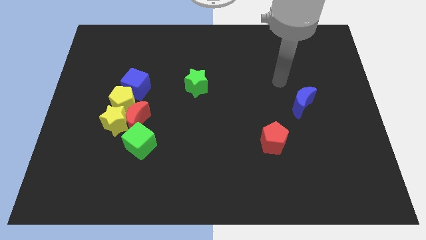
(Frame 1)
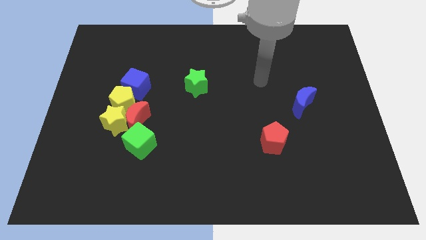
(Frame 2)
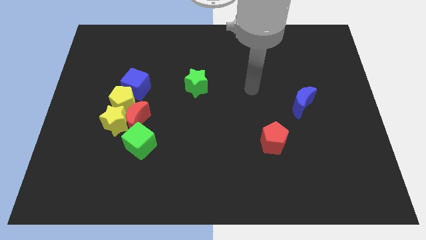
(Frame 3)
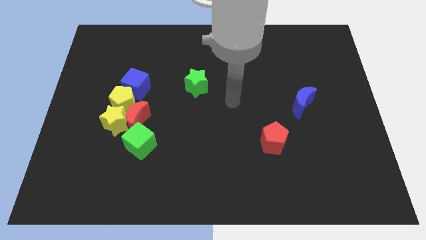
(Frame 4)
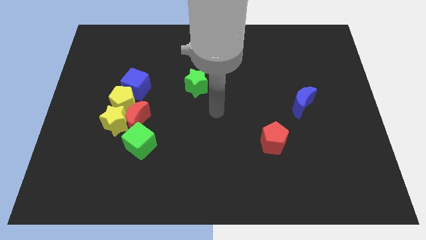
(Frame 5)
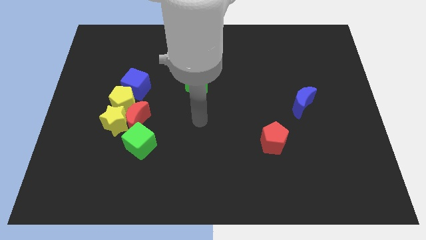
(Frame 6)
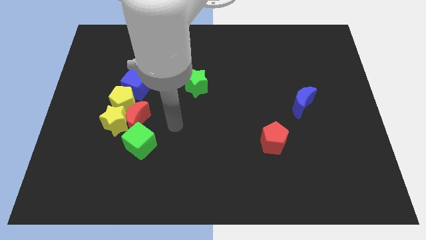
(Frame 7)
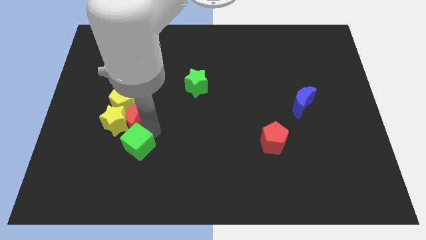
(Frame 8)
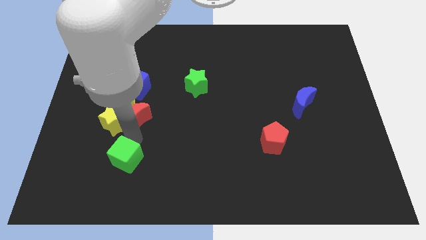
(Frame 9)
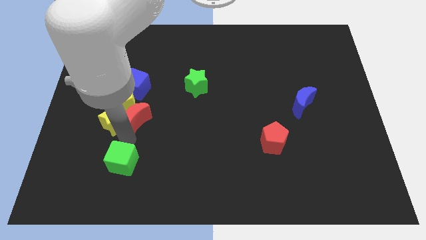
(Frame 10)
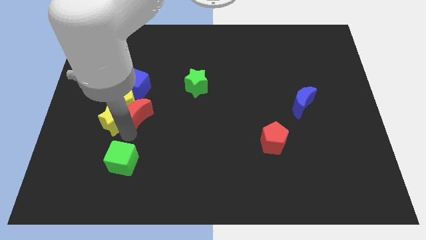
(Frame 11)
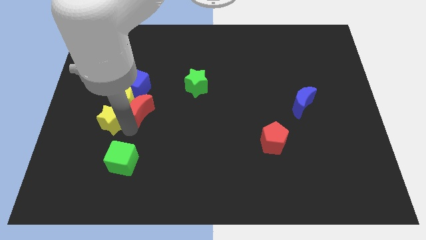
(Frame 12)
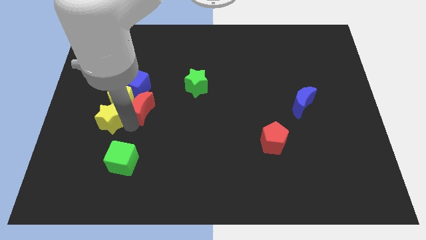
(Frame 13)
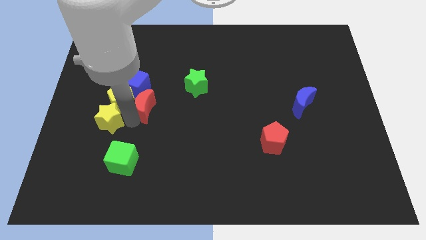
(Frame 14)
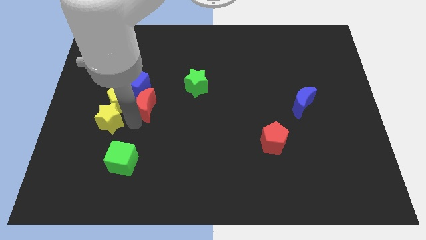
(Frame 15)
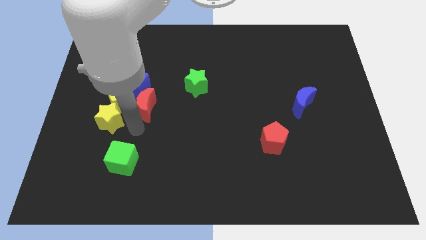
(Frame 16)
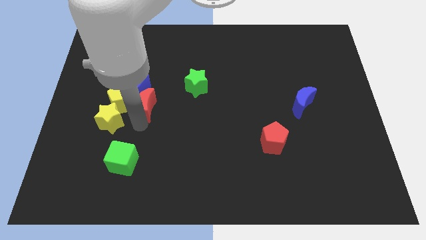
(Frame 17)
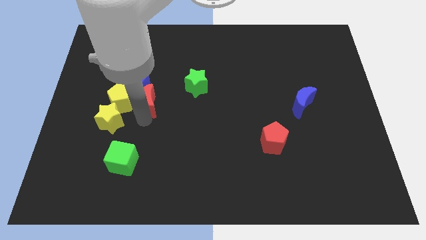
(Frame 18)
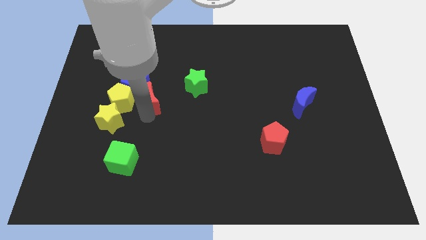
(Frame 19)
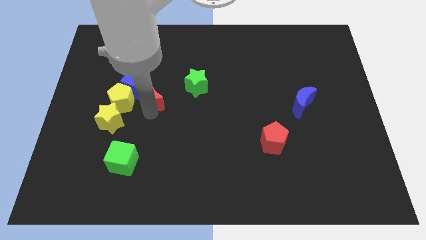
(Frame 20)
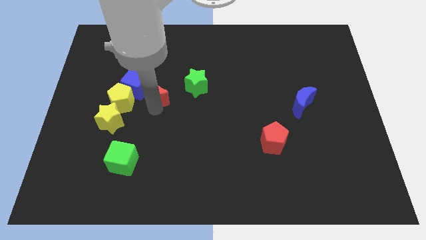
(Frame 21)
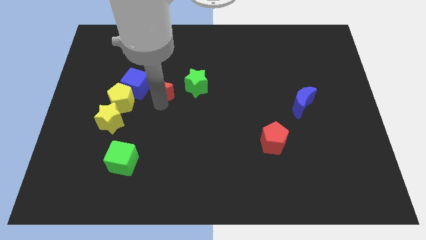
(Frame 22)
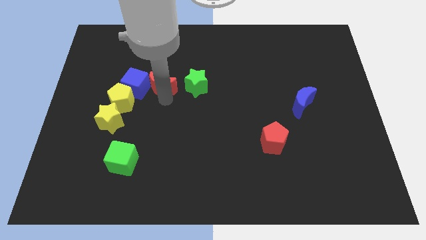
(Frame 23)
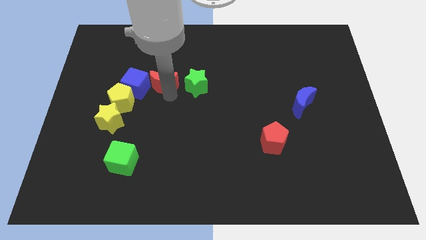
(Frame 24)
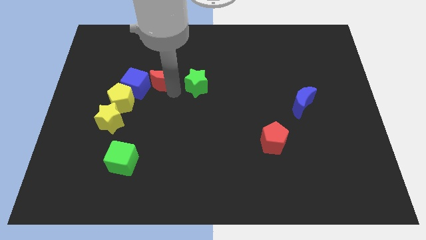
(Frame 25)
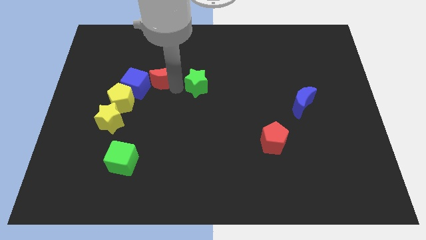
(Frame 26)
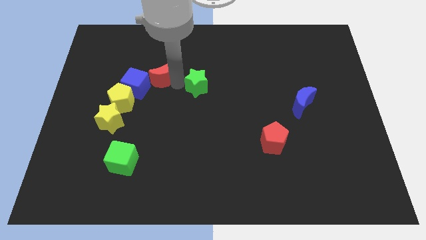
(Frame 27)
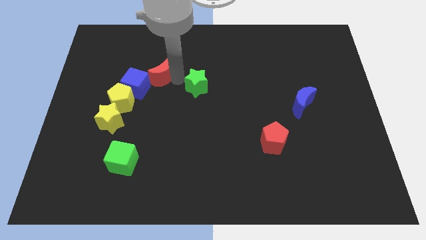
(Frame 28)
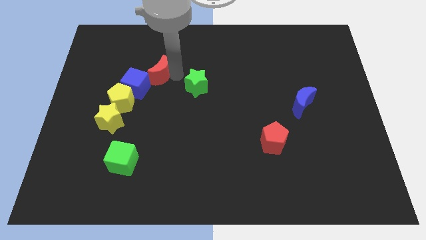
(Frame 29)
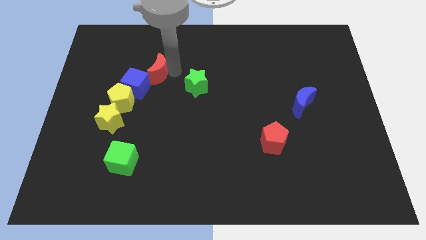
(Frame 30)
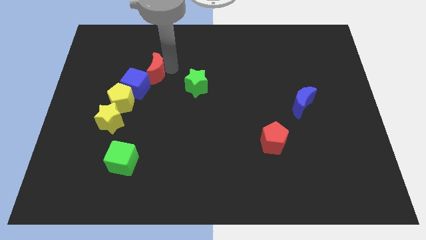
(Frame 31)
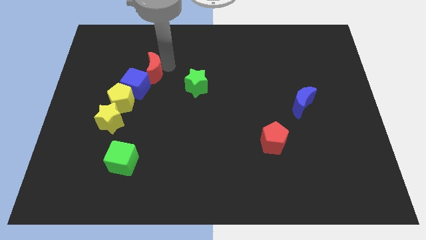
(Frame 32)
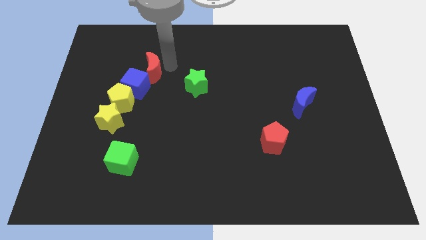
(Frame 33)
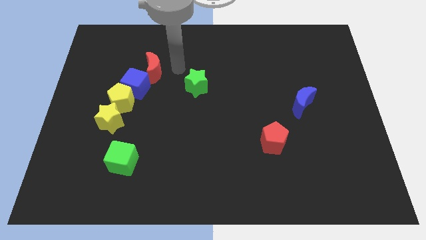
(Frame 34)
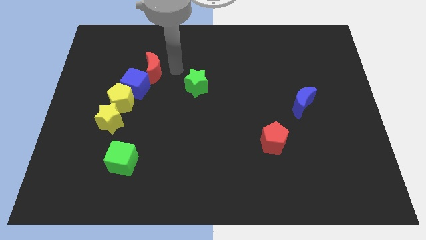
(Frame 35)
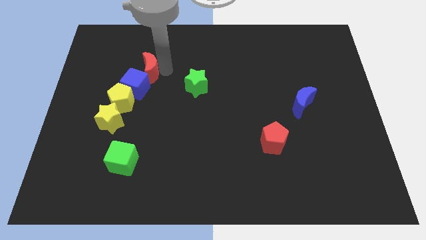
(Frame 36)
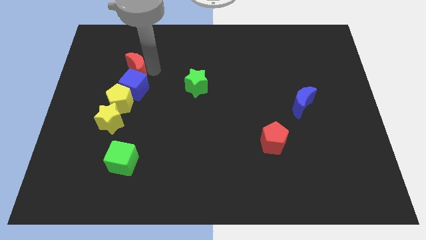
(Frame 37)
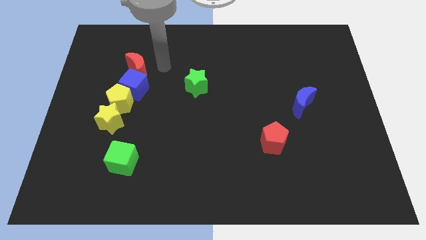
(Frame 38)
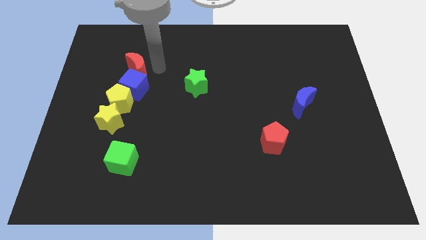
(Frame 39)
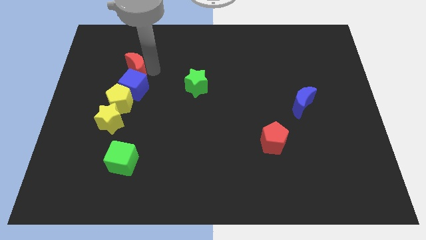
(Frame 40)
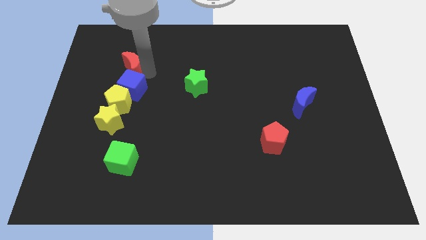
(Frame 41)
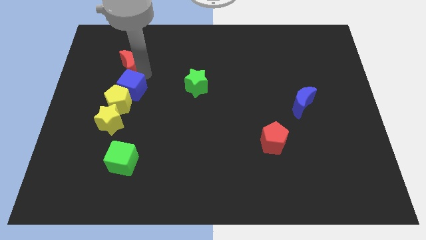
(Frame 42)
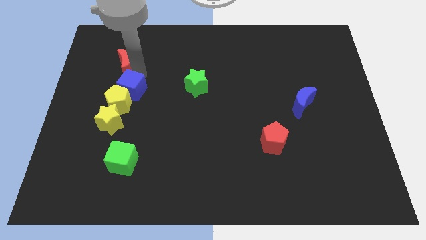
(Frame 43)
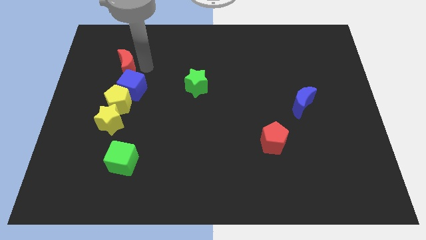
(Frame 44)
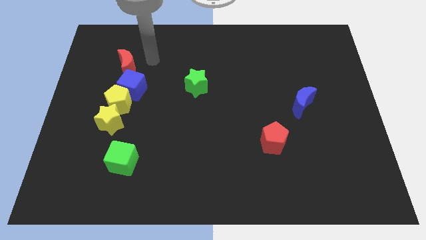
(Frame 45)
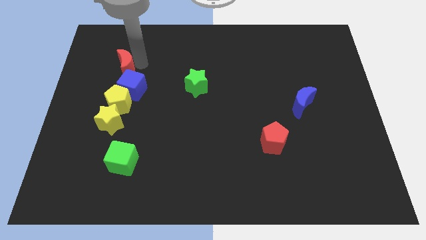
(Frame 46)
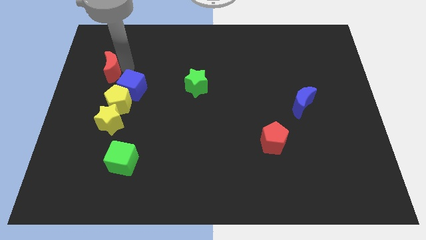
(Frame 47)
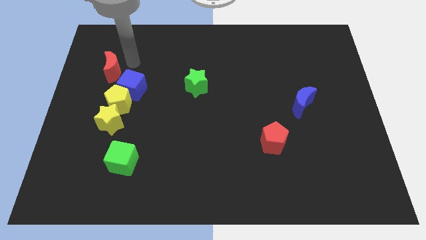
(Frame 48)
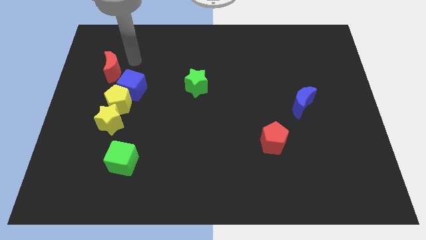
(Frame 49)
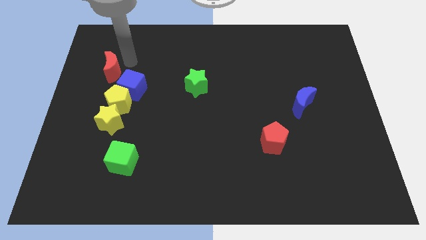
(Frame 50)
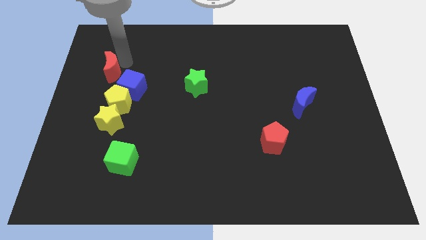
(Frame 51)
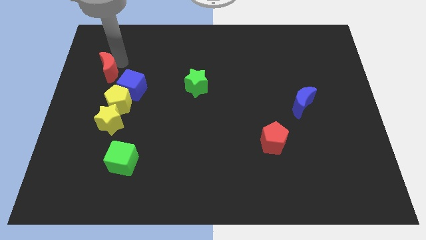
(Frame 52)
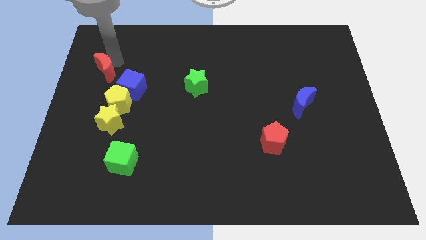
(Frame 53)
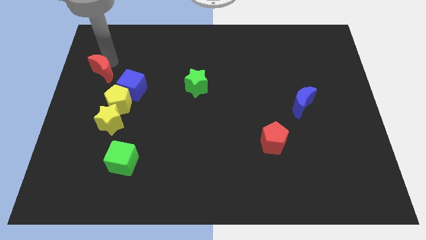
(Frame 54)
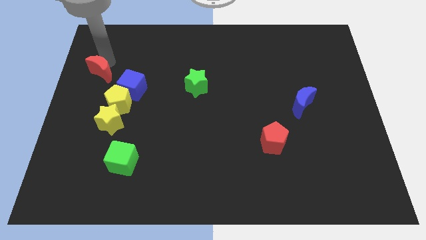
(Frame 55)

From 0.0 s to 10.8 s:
put the red moon to the left side
